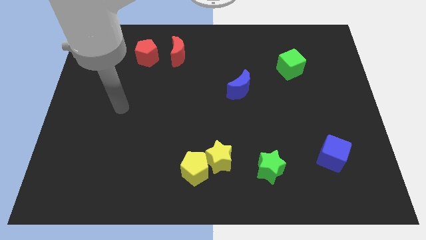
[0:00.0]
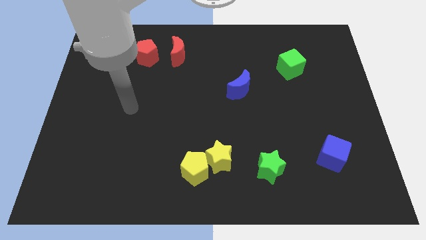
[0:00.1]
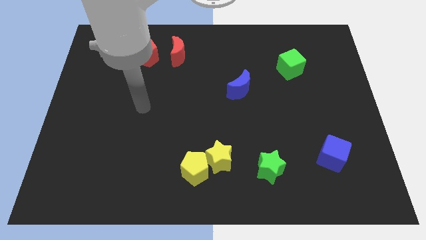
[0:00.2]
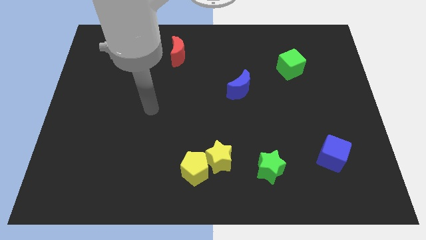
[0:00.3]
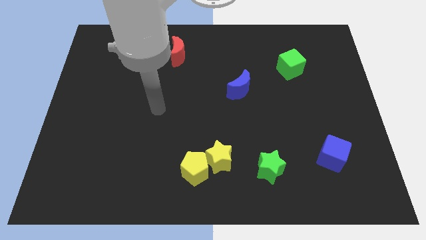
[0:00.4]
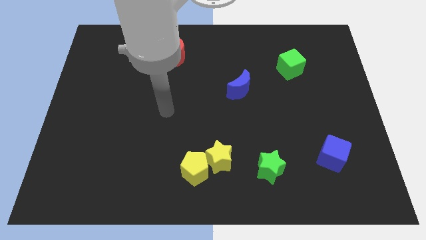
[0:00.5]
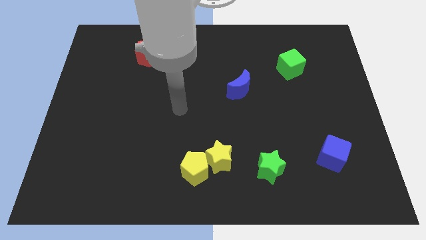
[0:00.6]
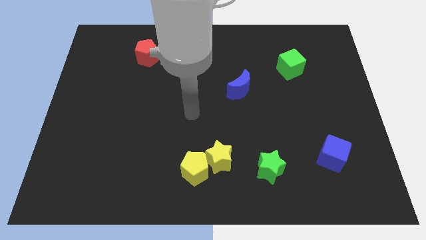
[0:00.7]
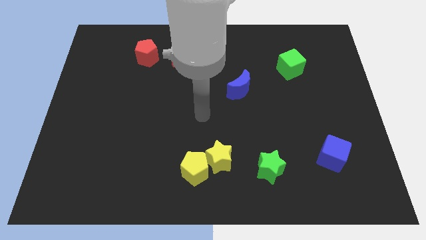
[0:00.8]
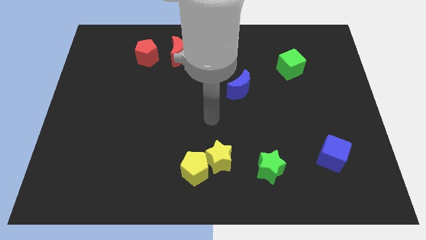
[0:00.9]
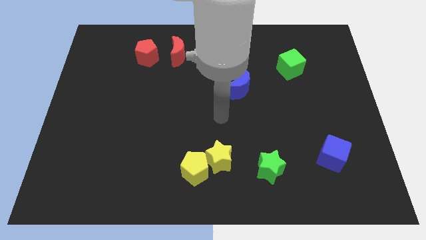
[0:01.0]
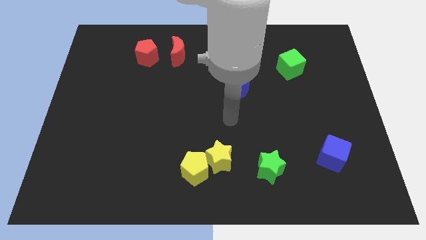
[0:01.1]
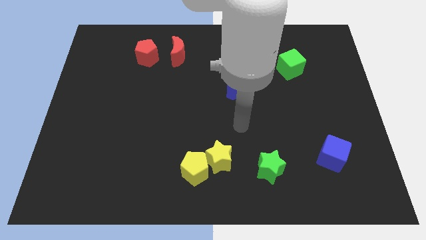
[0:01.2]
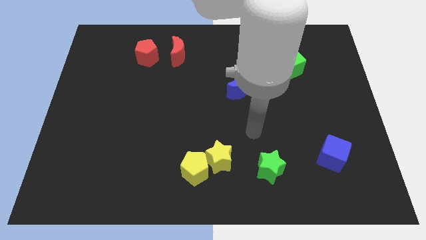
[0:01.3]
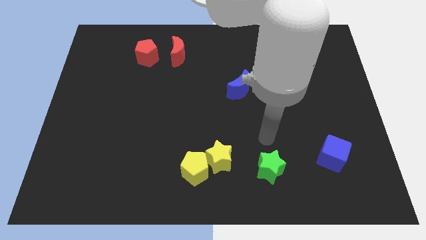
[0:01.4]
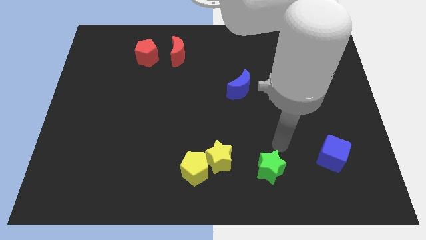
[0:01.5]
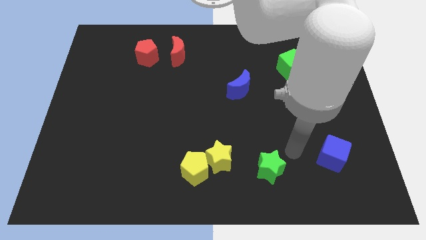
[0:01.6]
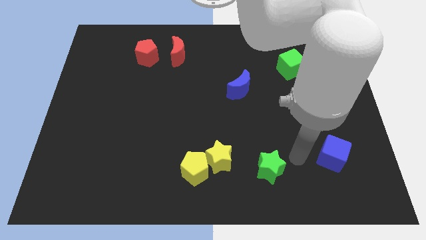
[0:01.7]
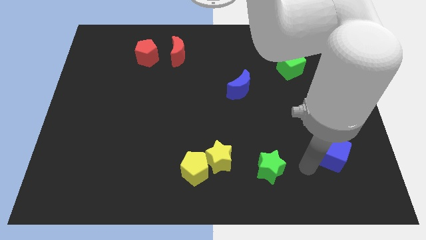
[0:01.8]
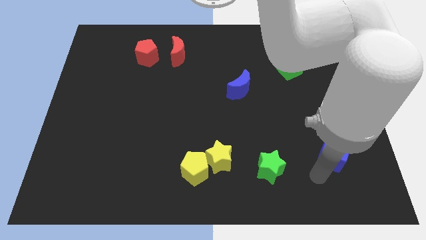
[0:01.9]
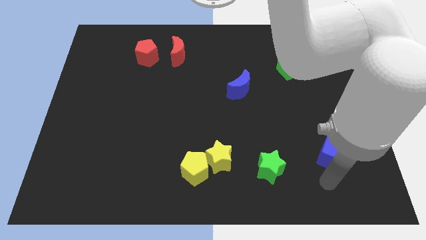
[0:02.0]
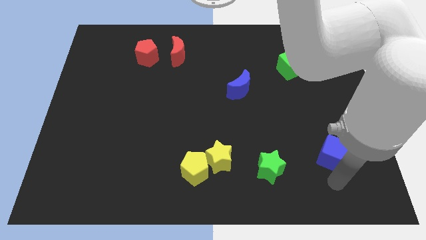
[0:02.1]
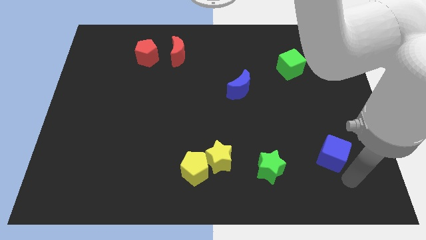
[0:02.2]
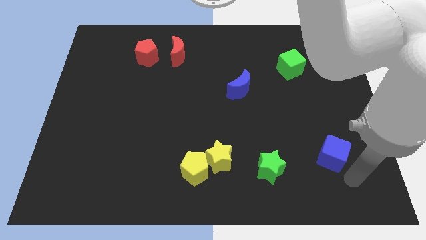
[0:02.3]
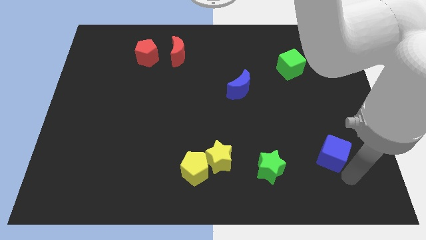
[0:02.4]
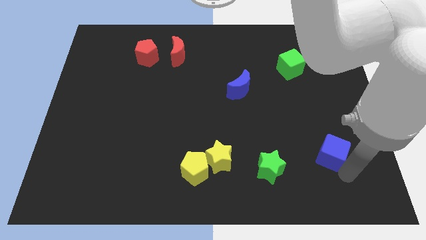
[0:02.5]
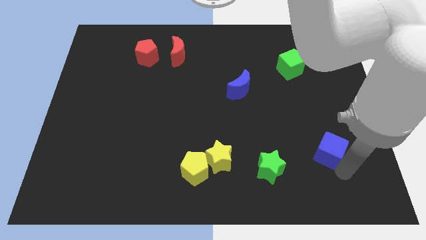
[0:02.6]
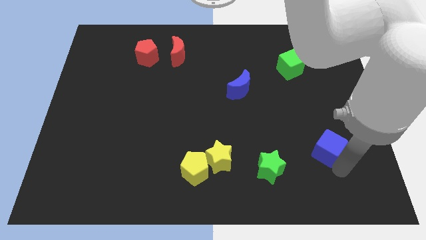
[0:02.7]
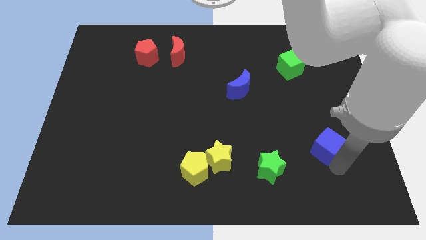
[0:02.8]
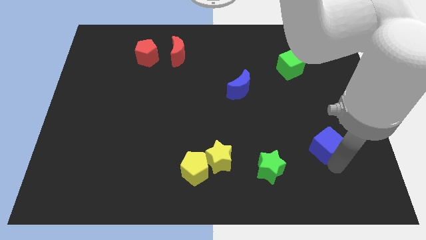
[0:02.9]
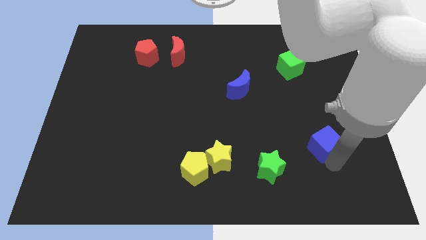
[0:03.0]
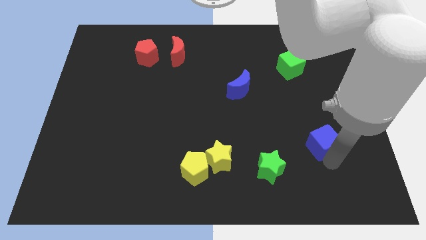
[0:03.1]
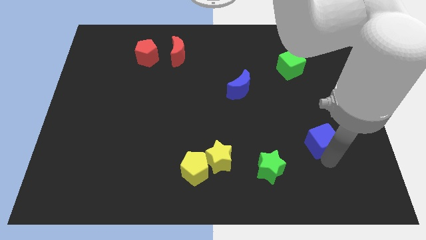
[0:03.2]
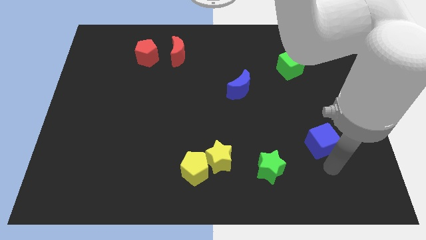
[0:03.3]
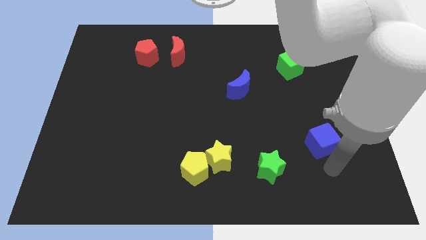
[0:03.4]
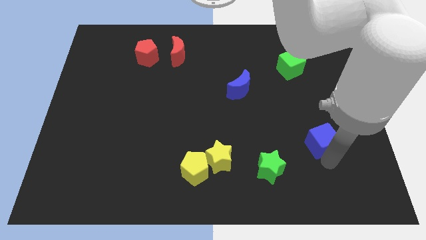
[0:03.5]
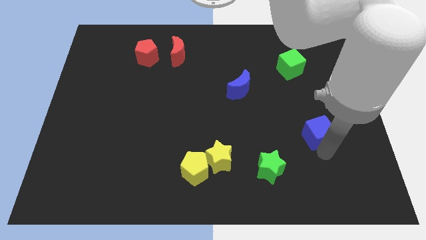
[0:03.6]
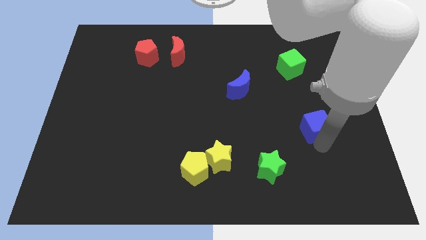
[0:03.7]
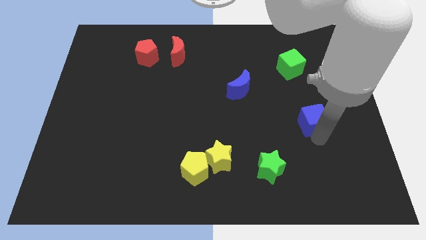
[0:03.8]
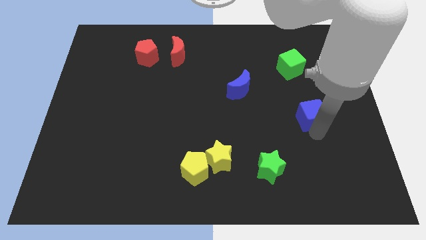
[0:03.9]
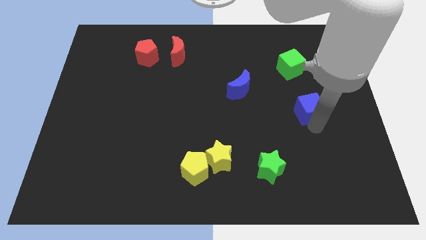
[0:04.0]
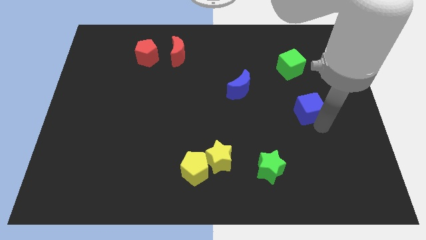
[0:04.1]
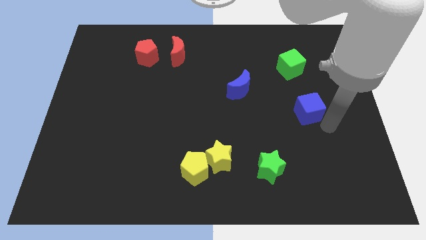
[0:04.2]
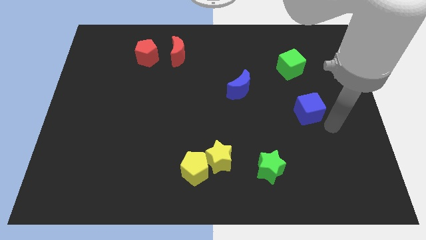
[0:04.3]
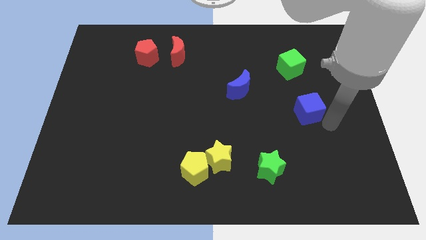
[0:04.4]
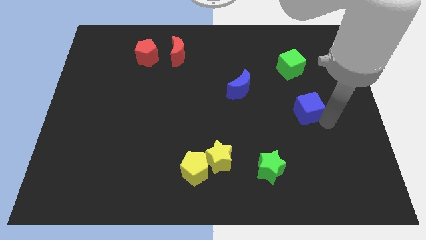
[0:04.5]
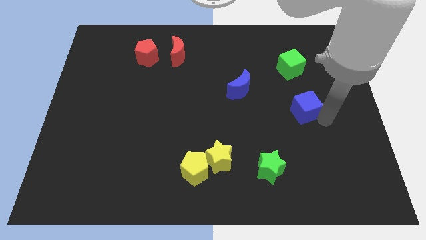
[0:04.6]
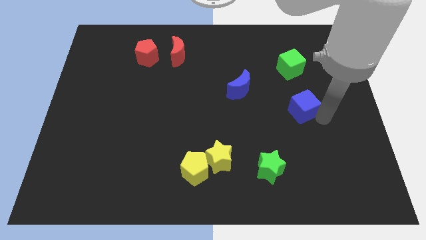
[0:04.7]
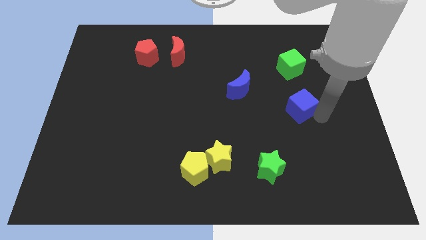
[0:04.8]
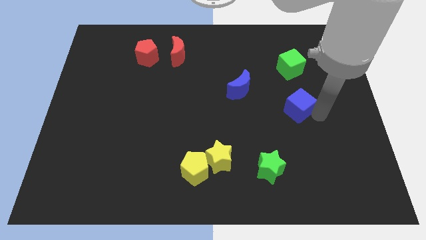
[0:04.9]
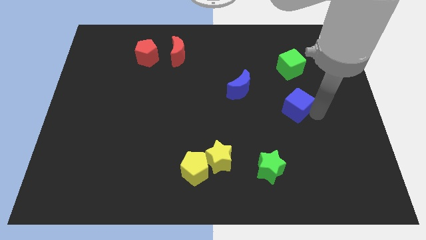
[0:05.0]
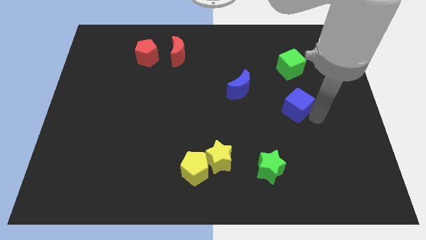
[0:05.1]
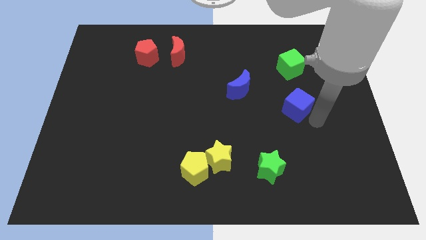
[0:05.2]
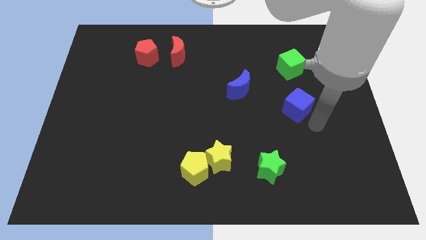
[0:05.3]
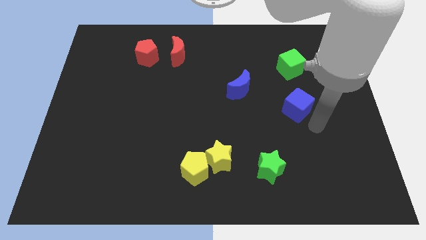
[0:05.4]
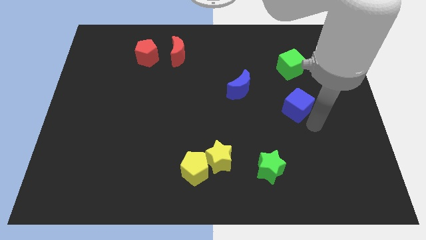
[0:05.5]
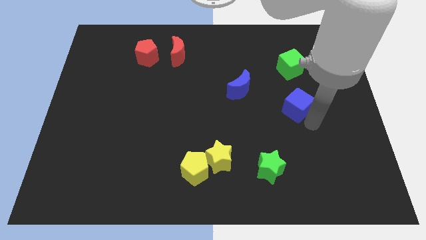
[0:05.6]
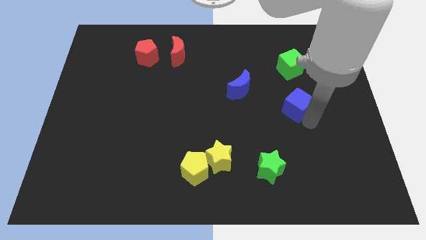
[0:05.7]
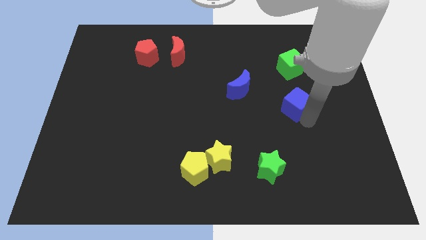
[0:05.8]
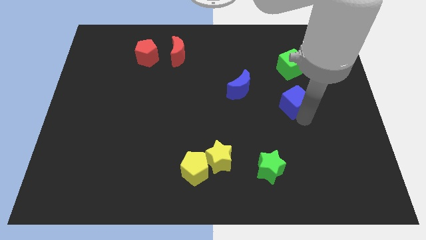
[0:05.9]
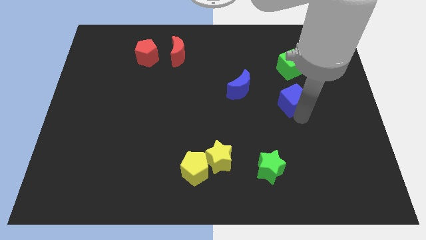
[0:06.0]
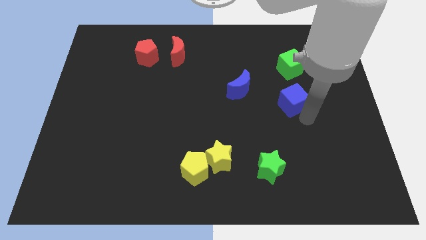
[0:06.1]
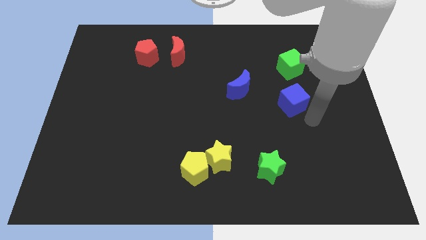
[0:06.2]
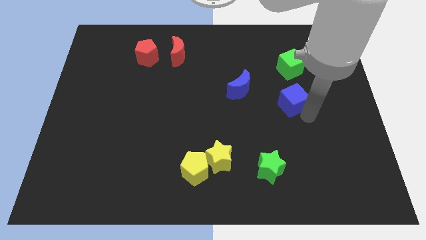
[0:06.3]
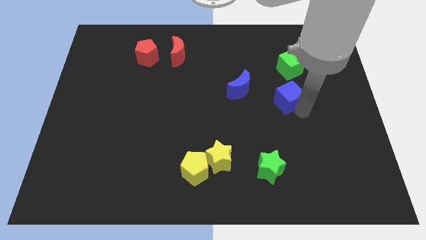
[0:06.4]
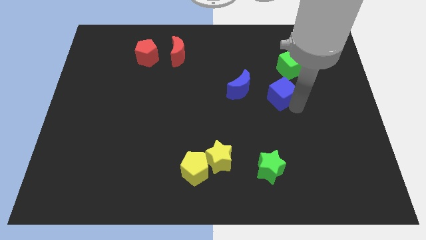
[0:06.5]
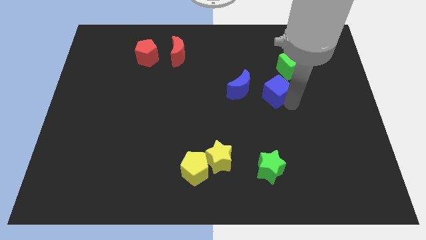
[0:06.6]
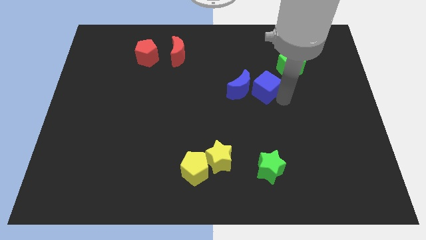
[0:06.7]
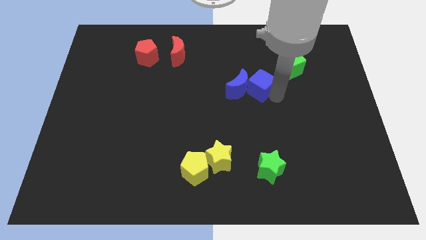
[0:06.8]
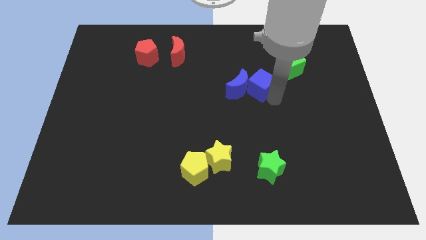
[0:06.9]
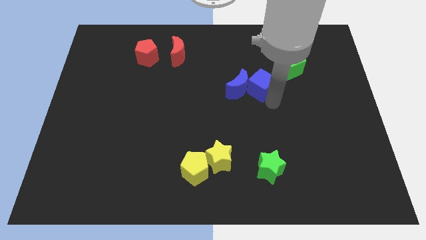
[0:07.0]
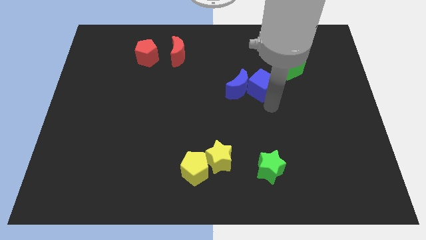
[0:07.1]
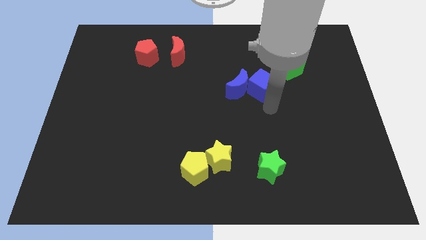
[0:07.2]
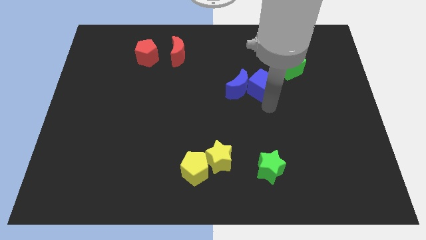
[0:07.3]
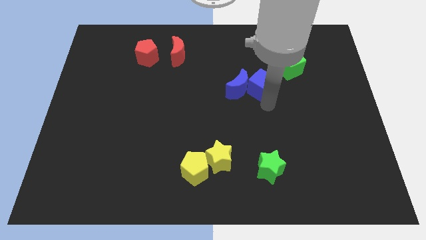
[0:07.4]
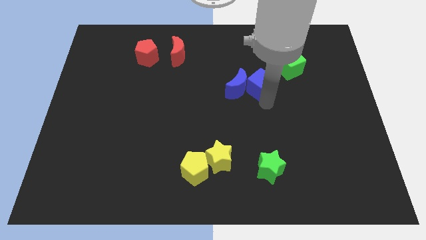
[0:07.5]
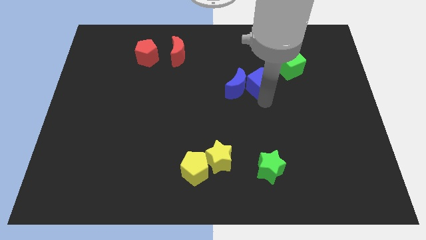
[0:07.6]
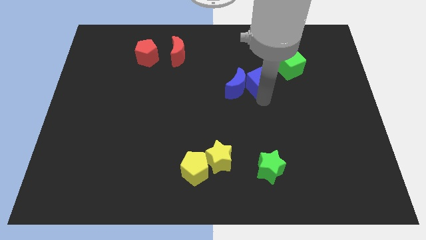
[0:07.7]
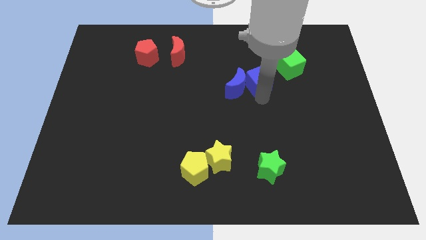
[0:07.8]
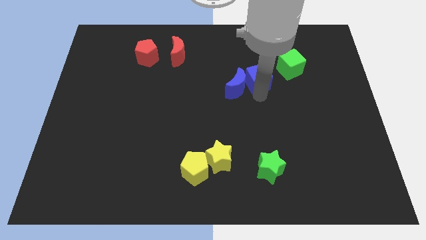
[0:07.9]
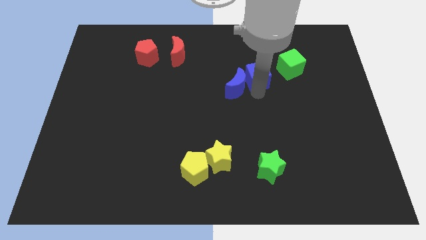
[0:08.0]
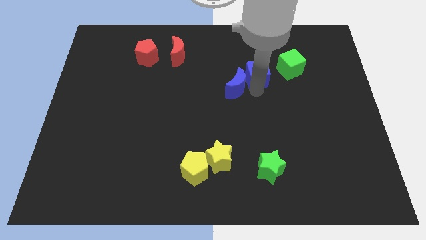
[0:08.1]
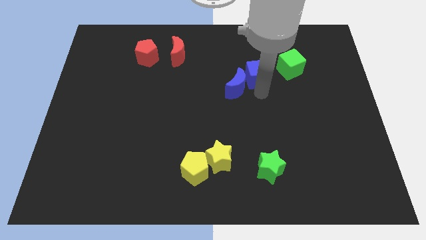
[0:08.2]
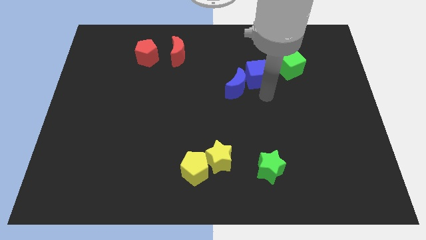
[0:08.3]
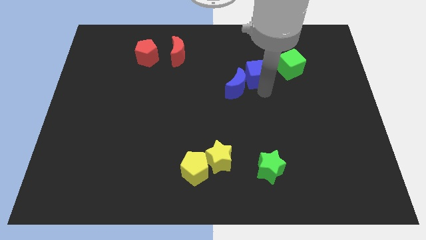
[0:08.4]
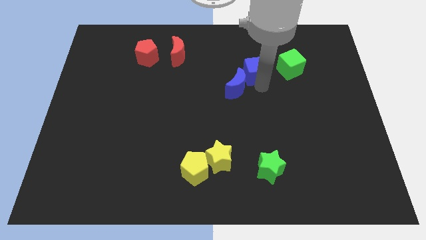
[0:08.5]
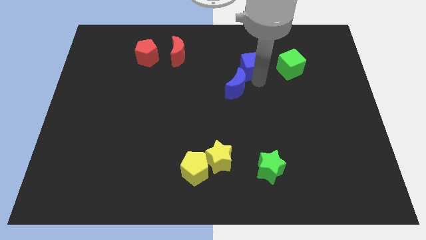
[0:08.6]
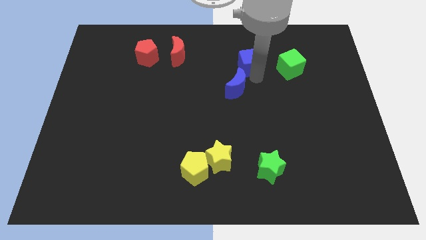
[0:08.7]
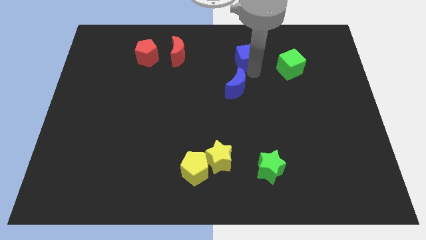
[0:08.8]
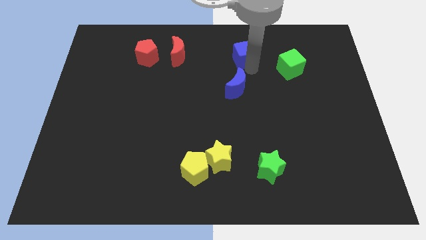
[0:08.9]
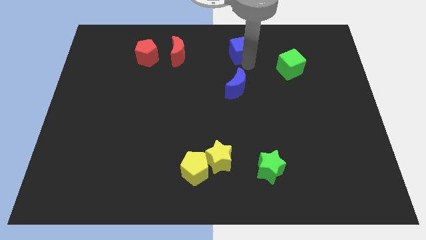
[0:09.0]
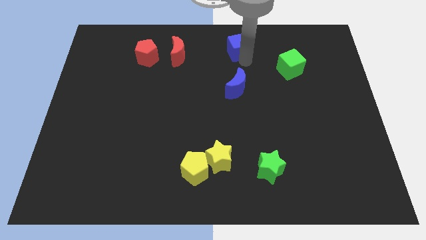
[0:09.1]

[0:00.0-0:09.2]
put the blue cube to the top side
